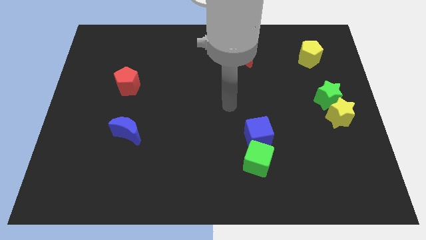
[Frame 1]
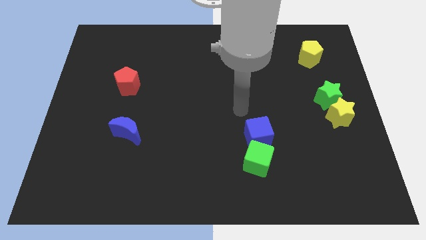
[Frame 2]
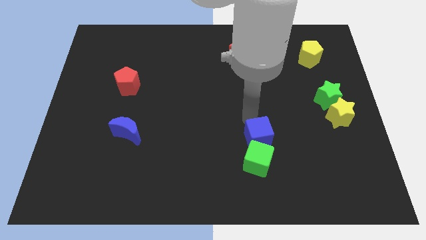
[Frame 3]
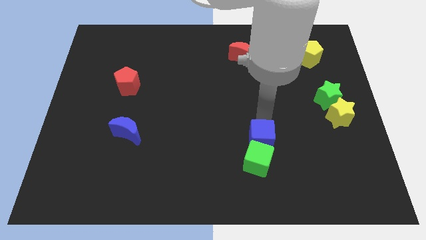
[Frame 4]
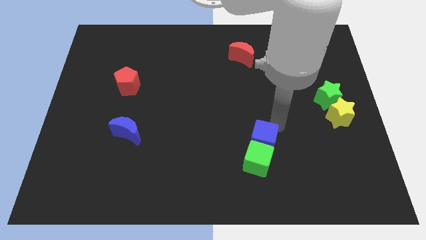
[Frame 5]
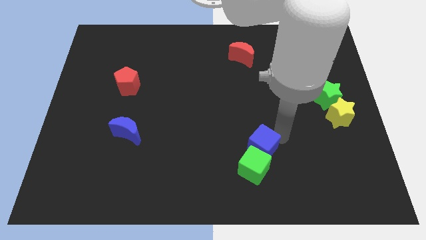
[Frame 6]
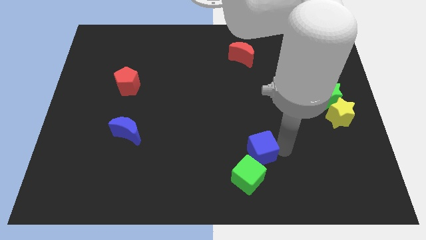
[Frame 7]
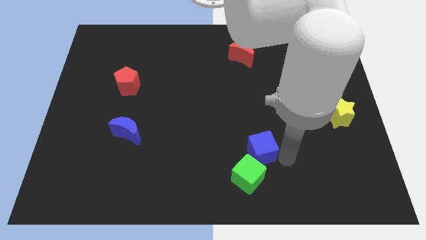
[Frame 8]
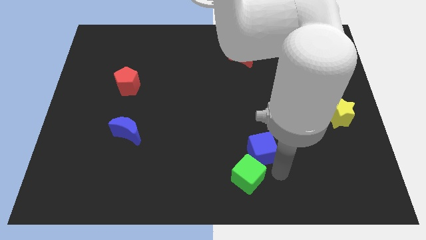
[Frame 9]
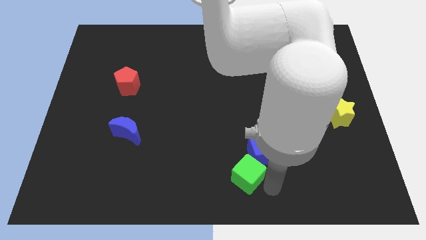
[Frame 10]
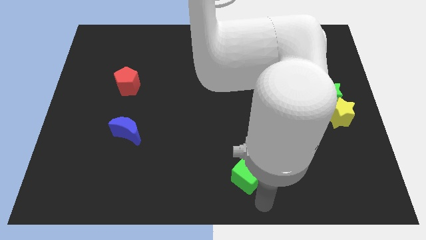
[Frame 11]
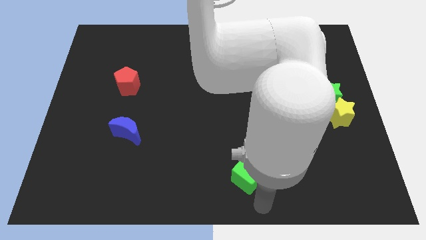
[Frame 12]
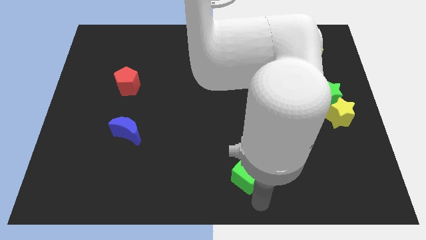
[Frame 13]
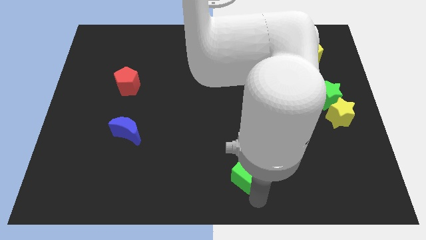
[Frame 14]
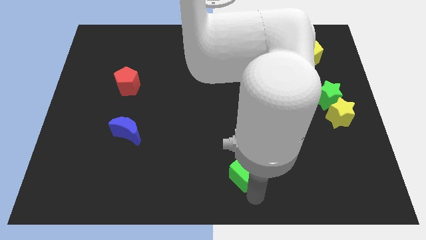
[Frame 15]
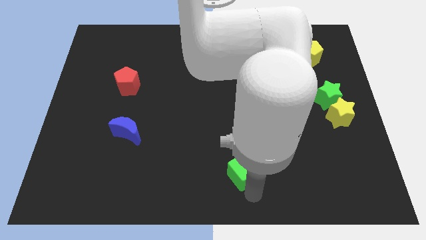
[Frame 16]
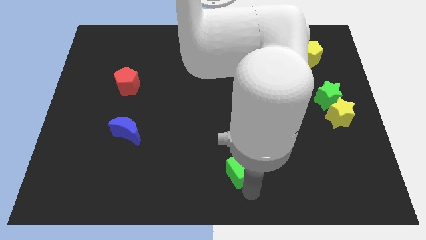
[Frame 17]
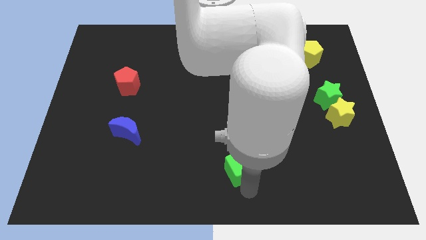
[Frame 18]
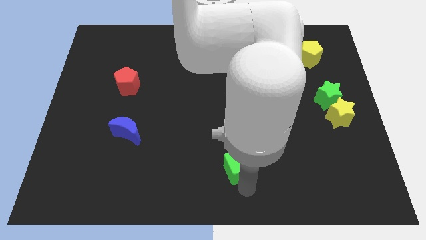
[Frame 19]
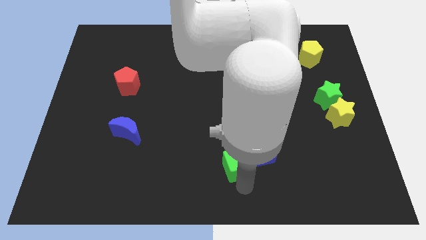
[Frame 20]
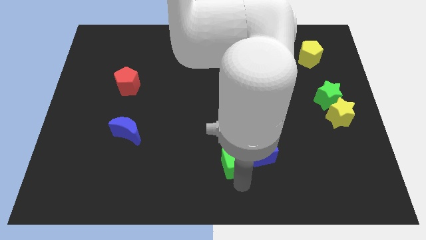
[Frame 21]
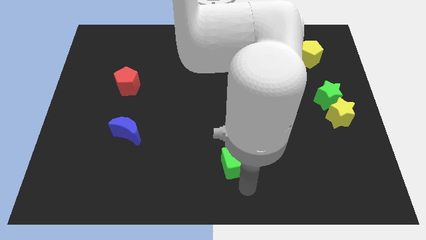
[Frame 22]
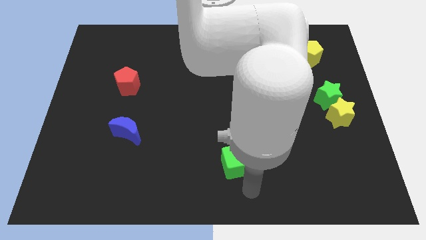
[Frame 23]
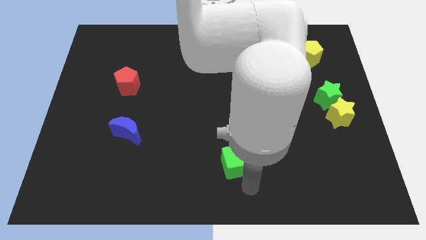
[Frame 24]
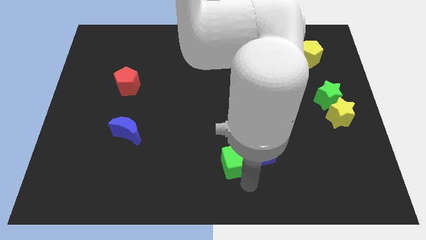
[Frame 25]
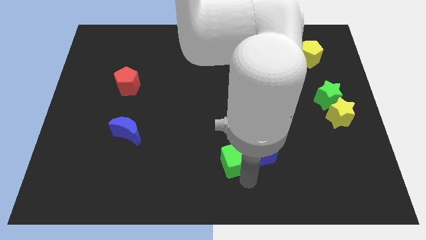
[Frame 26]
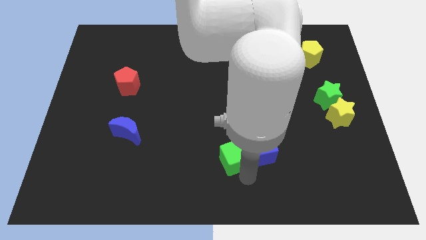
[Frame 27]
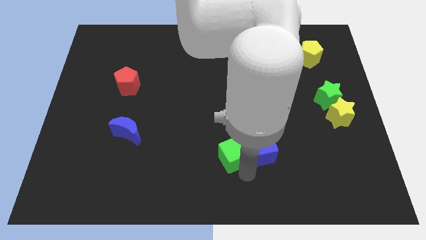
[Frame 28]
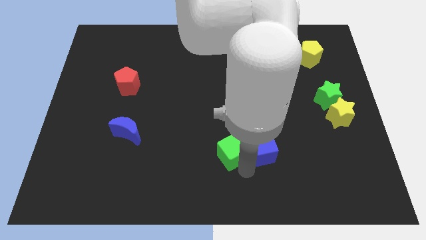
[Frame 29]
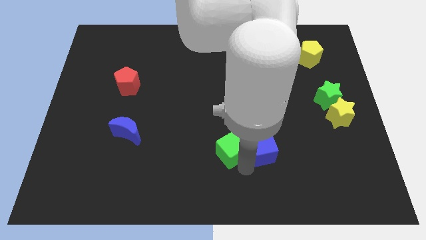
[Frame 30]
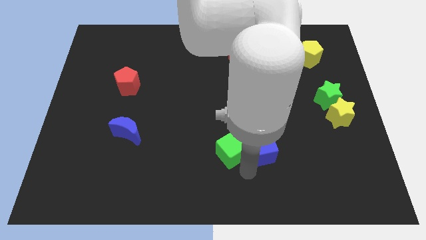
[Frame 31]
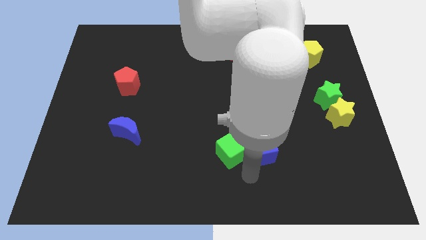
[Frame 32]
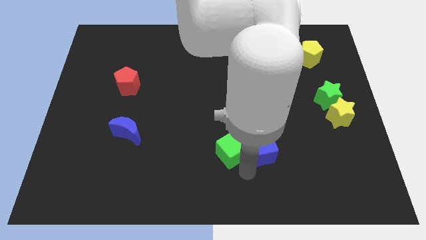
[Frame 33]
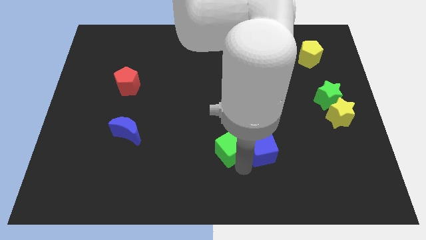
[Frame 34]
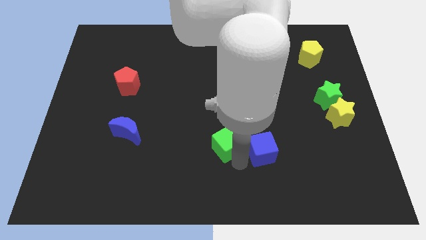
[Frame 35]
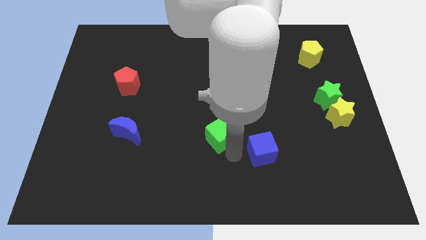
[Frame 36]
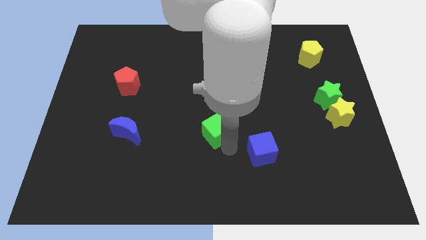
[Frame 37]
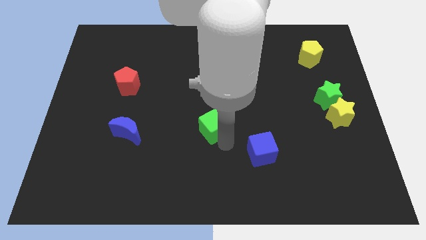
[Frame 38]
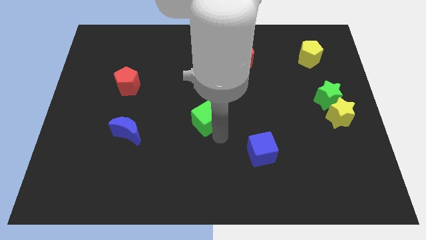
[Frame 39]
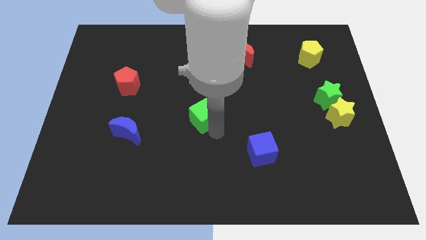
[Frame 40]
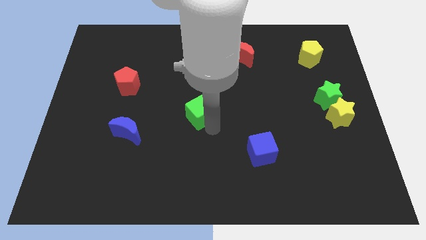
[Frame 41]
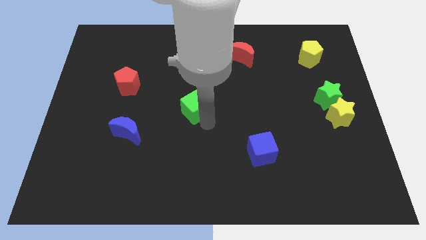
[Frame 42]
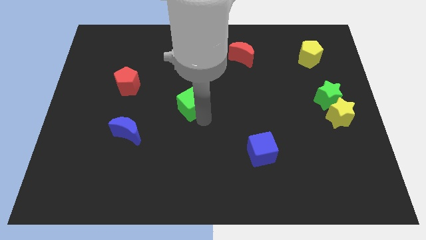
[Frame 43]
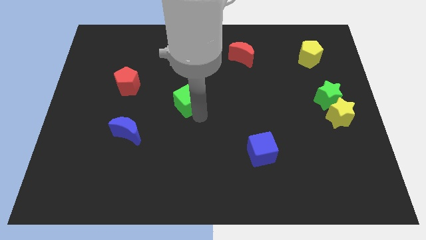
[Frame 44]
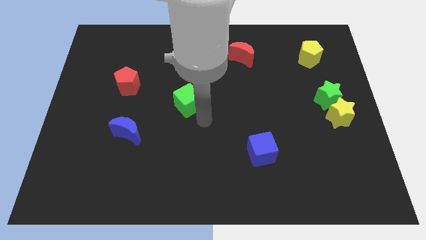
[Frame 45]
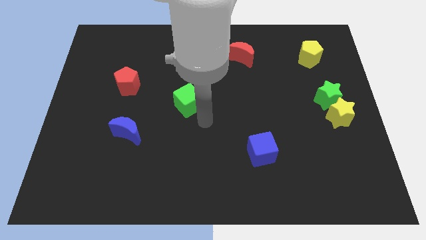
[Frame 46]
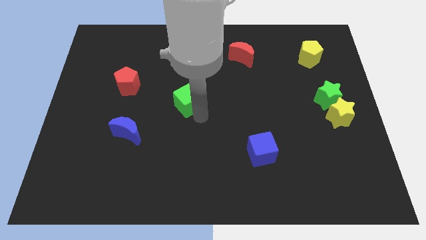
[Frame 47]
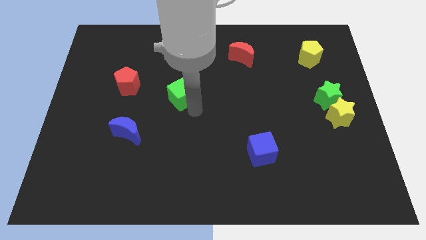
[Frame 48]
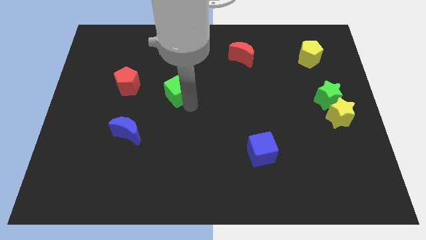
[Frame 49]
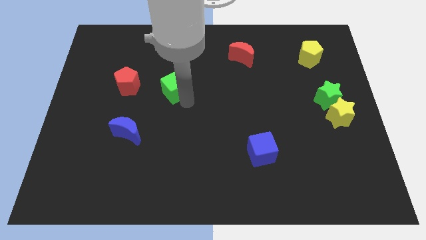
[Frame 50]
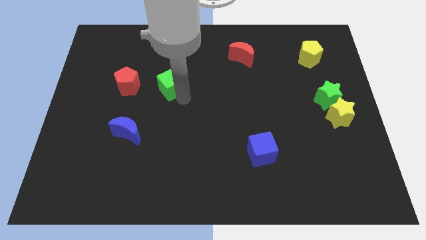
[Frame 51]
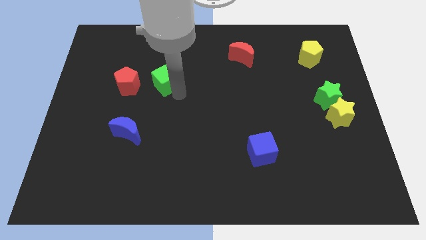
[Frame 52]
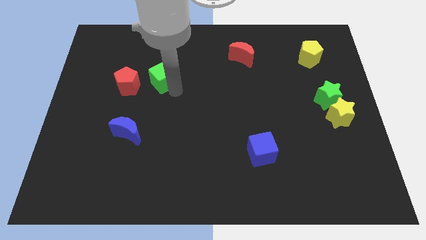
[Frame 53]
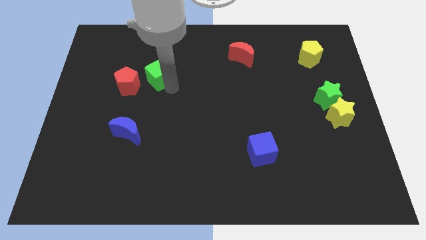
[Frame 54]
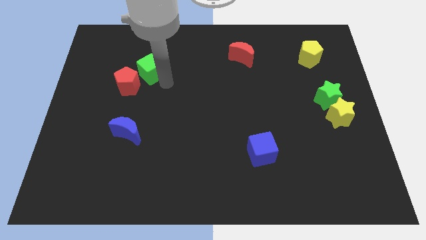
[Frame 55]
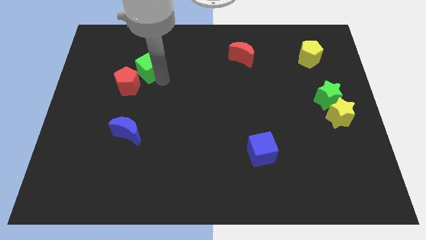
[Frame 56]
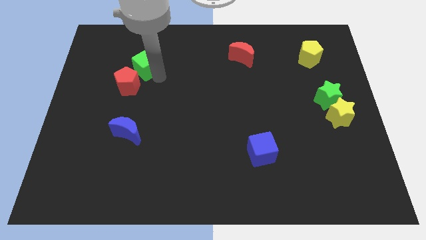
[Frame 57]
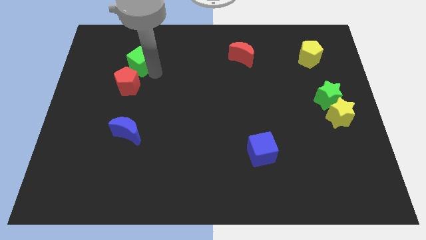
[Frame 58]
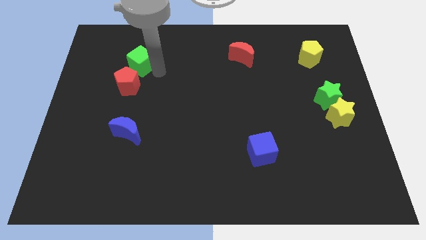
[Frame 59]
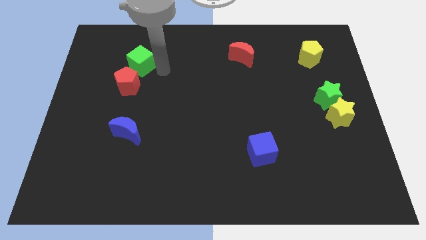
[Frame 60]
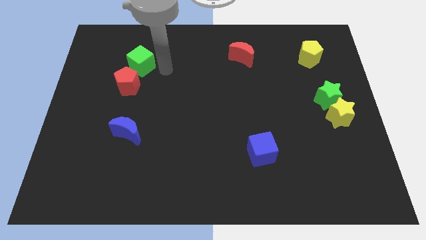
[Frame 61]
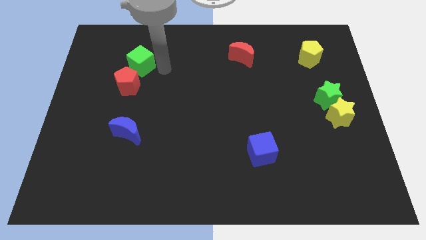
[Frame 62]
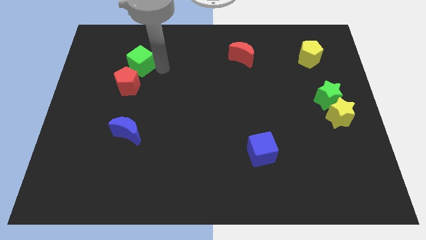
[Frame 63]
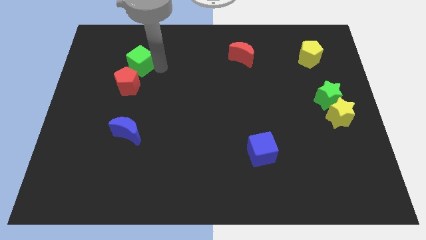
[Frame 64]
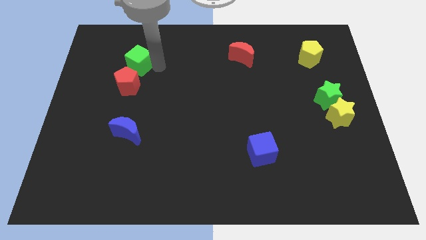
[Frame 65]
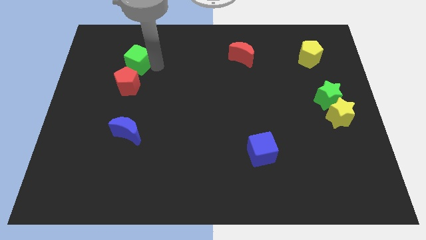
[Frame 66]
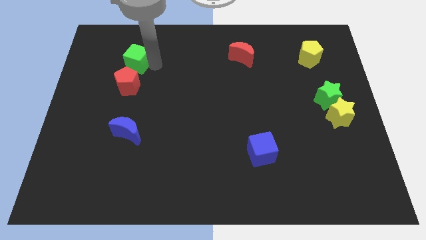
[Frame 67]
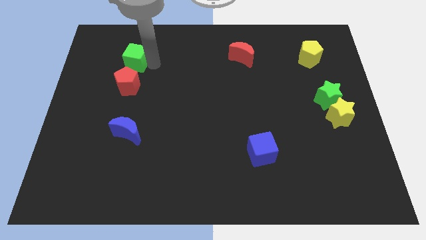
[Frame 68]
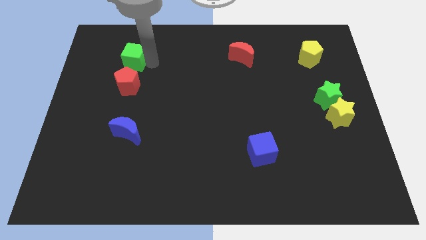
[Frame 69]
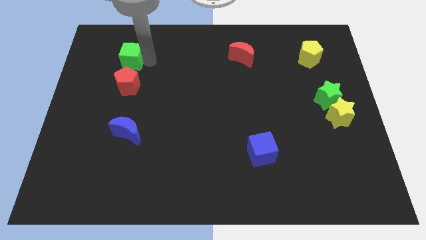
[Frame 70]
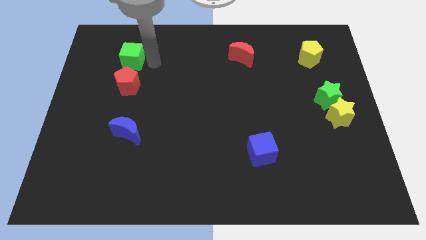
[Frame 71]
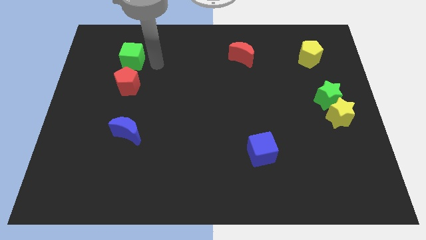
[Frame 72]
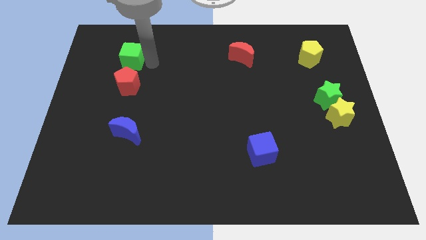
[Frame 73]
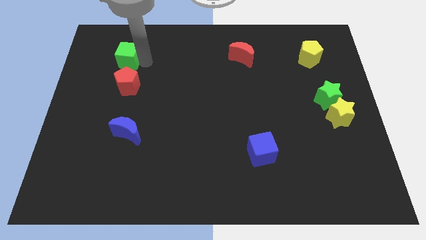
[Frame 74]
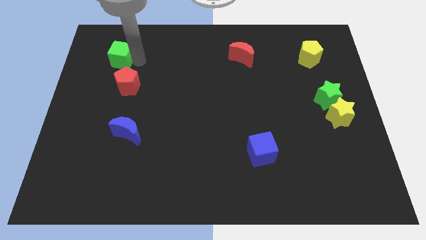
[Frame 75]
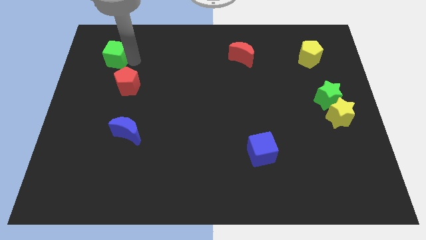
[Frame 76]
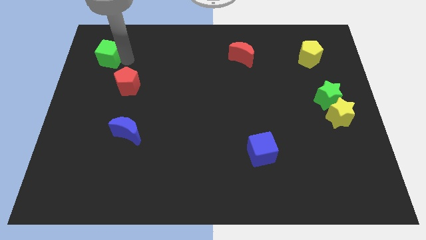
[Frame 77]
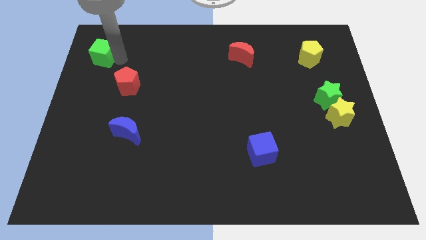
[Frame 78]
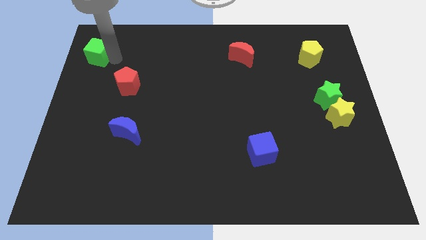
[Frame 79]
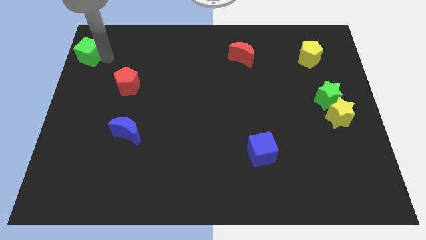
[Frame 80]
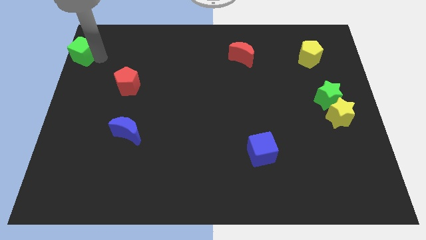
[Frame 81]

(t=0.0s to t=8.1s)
put the green cube to the upper left corner
